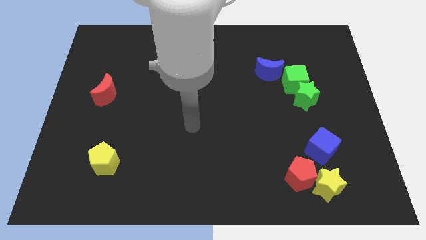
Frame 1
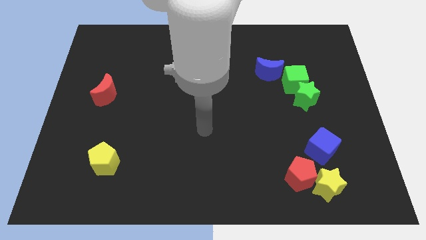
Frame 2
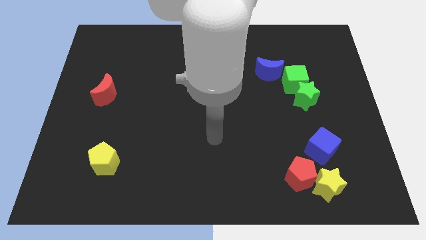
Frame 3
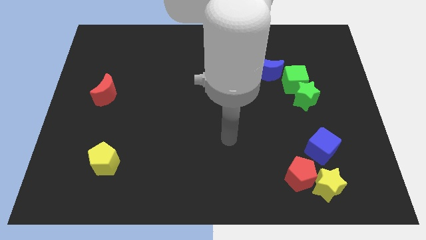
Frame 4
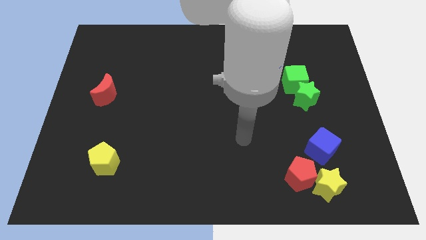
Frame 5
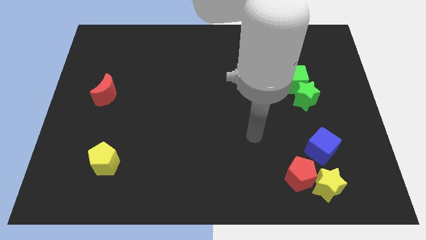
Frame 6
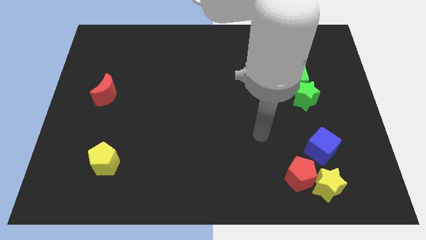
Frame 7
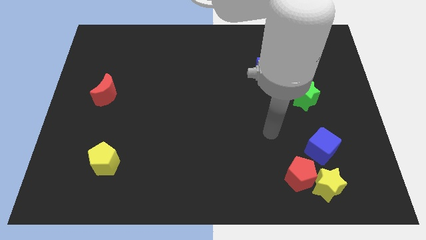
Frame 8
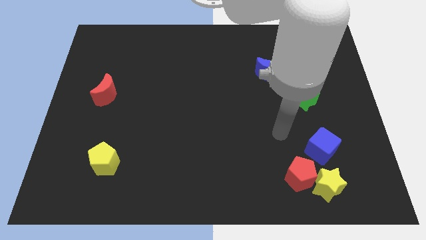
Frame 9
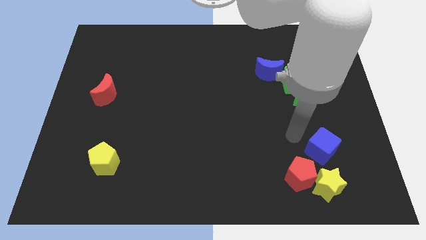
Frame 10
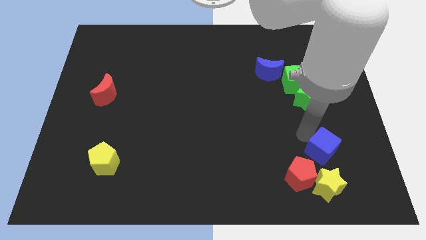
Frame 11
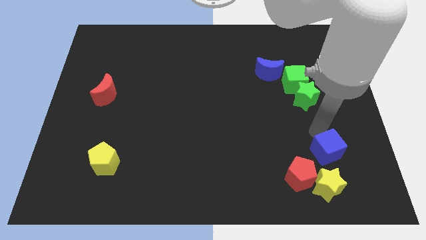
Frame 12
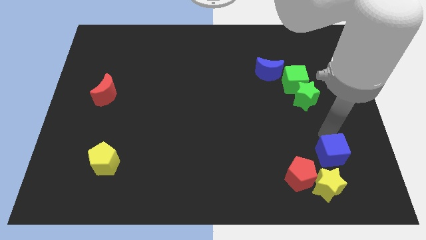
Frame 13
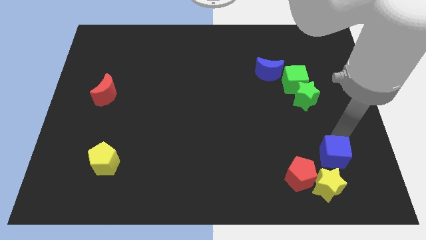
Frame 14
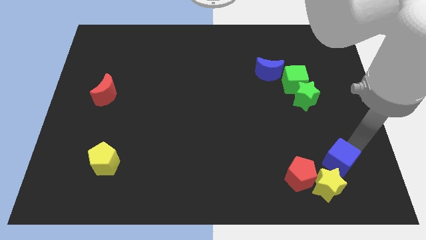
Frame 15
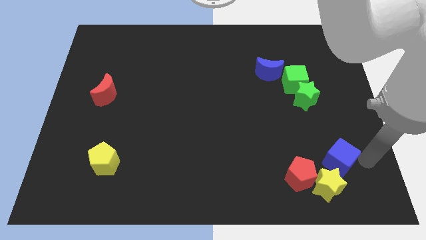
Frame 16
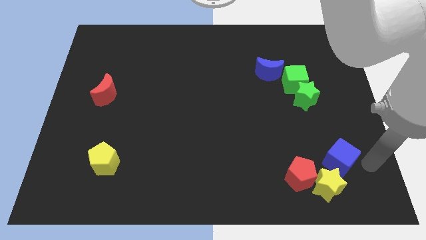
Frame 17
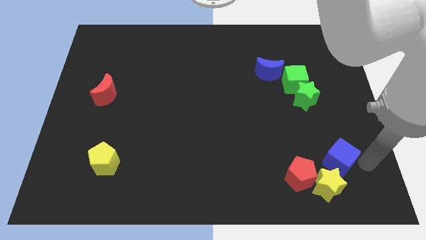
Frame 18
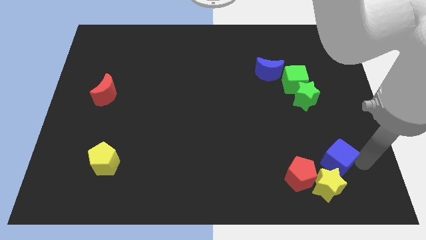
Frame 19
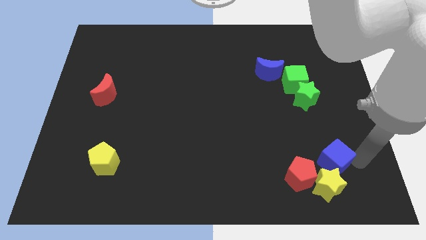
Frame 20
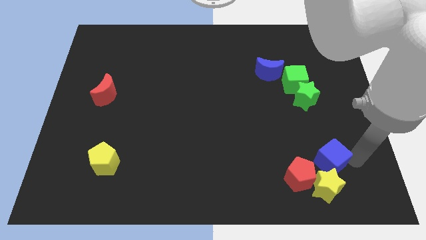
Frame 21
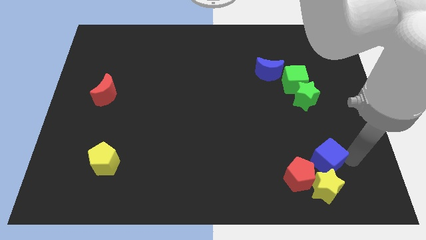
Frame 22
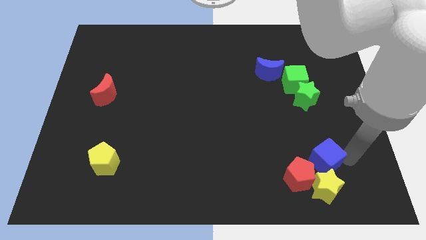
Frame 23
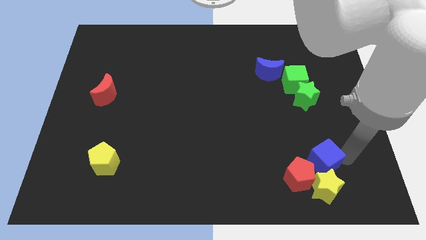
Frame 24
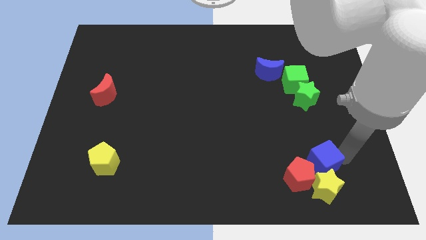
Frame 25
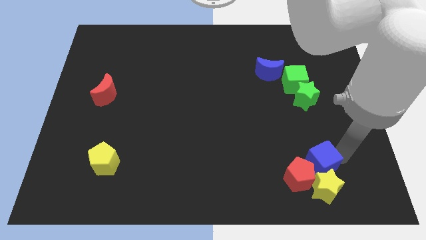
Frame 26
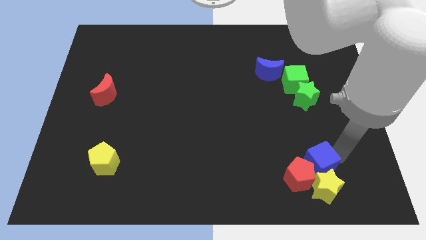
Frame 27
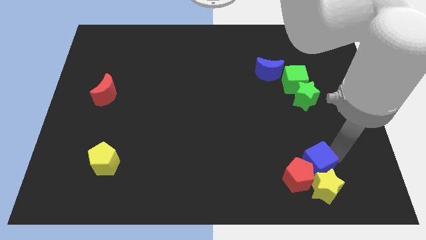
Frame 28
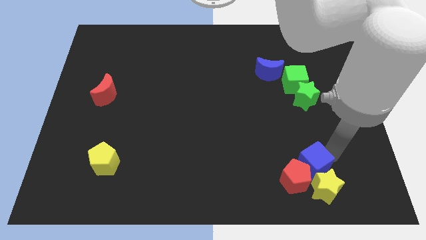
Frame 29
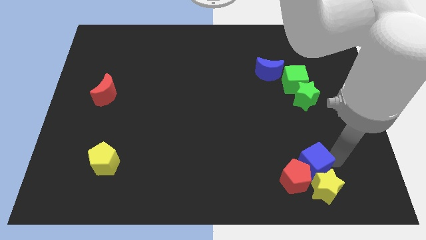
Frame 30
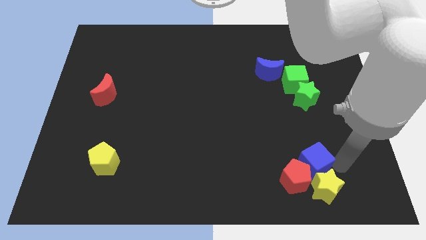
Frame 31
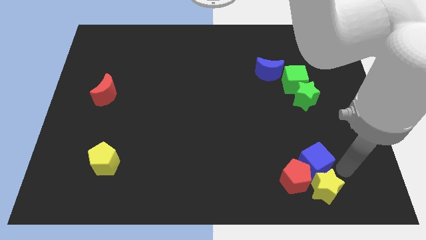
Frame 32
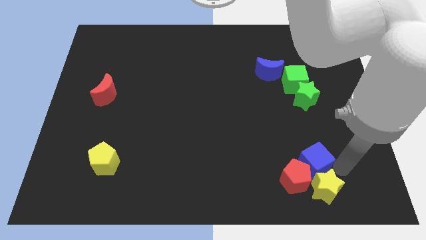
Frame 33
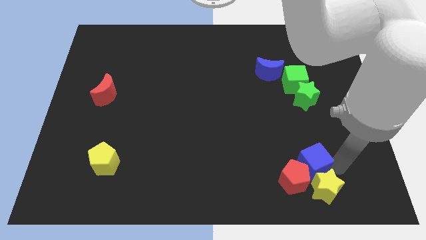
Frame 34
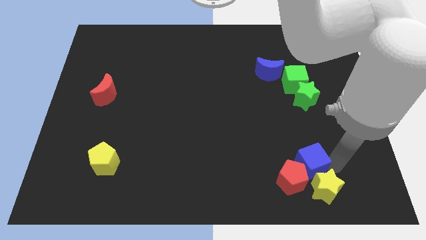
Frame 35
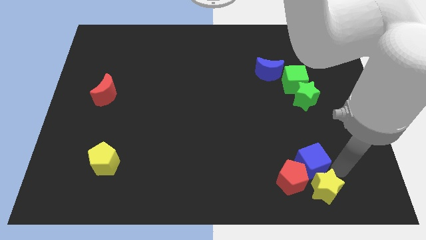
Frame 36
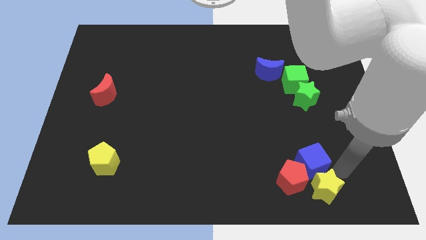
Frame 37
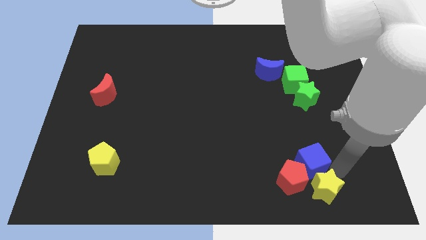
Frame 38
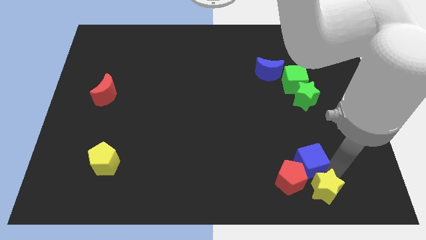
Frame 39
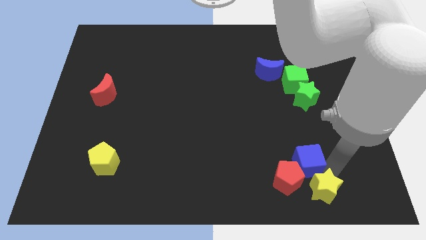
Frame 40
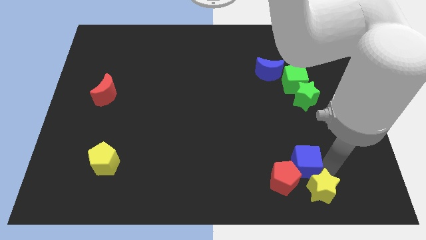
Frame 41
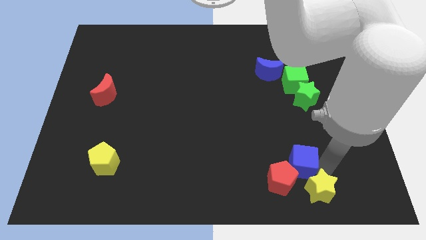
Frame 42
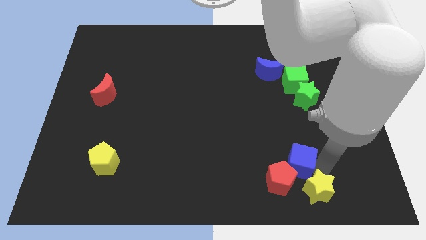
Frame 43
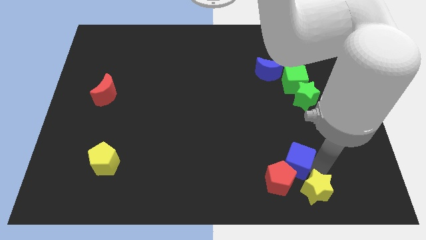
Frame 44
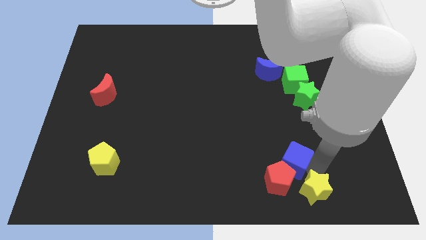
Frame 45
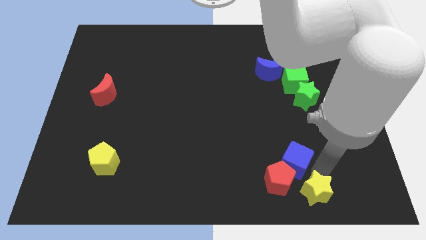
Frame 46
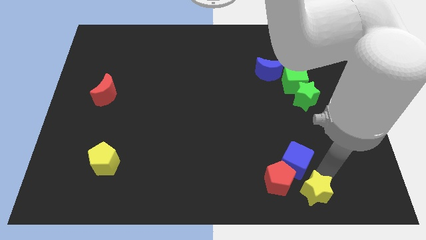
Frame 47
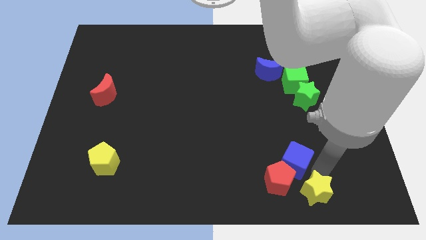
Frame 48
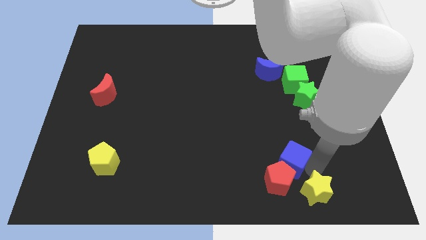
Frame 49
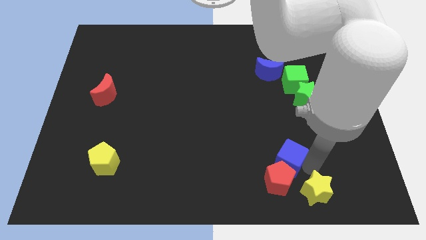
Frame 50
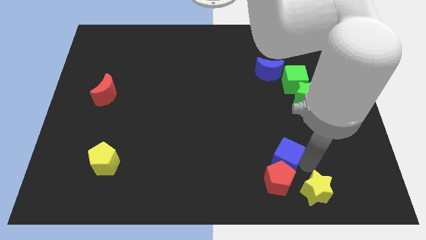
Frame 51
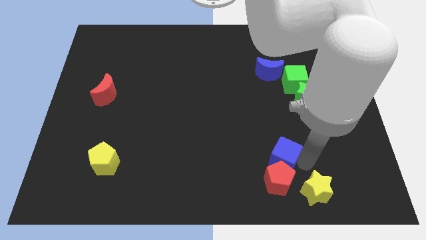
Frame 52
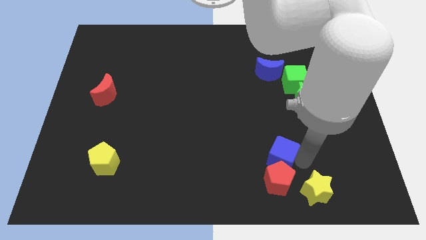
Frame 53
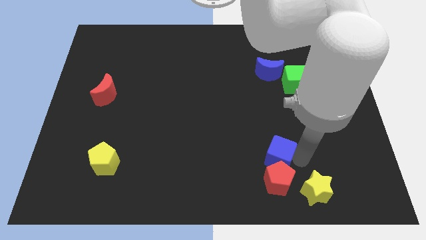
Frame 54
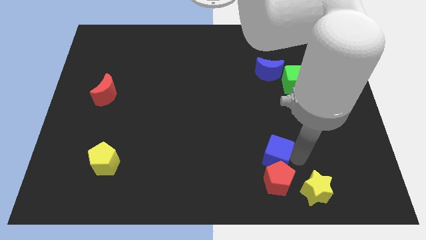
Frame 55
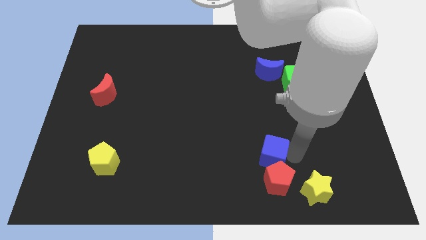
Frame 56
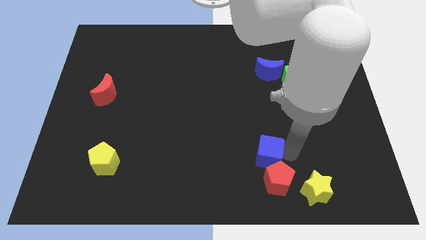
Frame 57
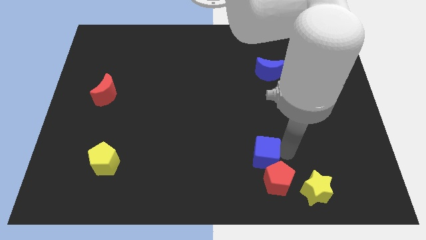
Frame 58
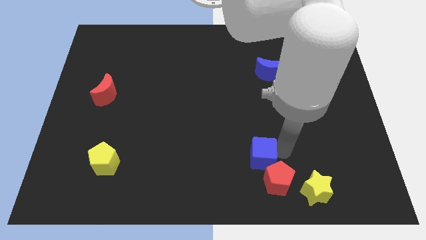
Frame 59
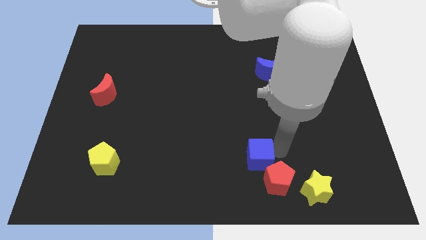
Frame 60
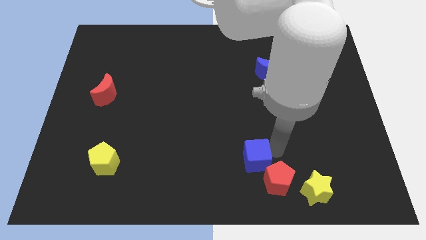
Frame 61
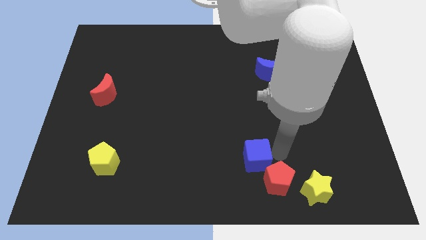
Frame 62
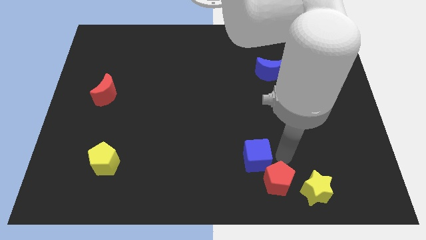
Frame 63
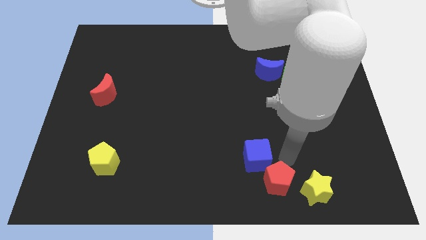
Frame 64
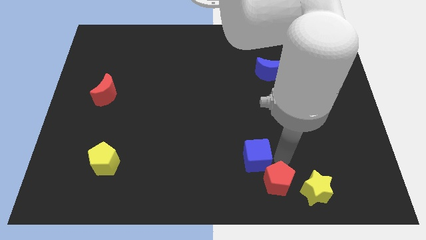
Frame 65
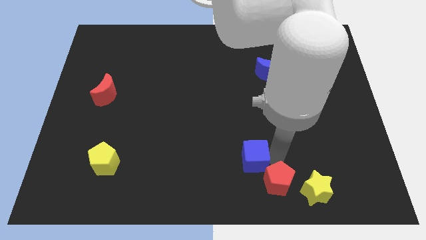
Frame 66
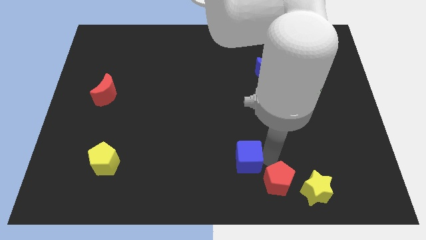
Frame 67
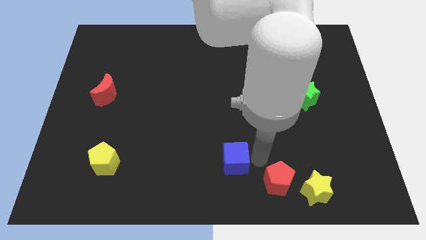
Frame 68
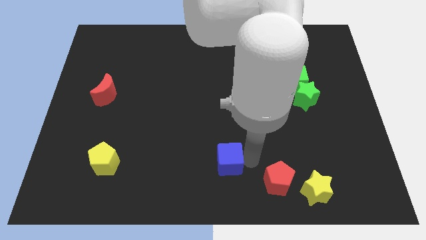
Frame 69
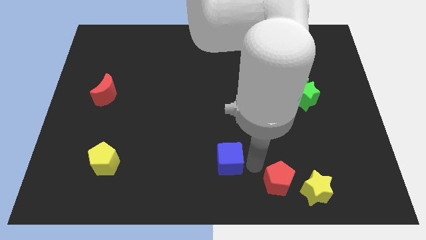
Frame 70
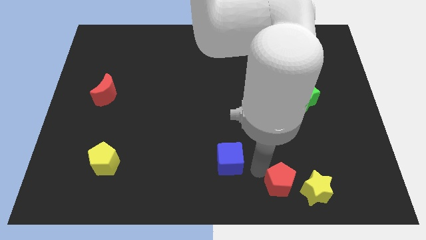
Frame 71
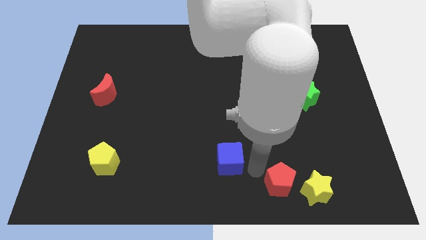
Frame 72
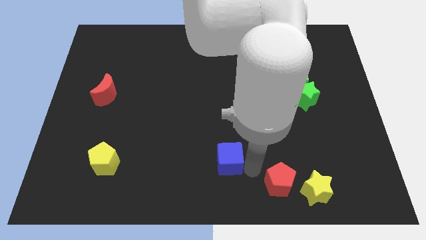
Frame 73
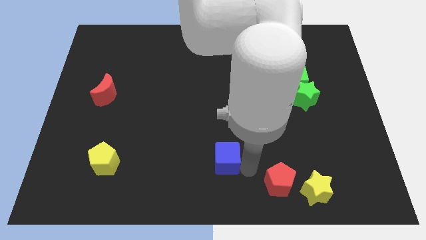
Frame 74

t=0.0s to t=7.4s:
slide the blue cube left

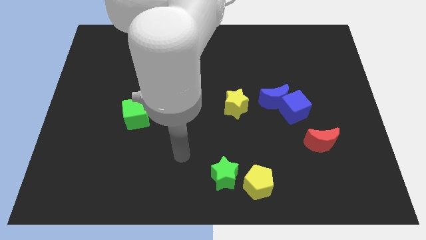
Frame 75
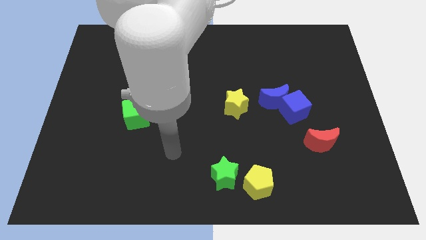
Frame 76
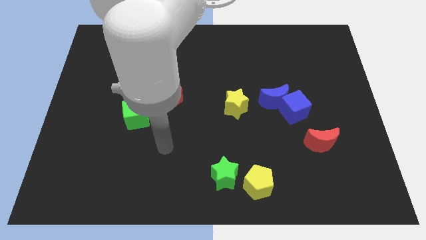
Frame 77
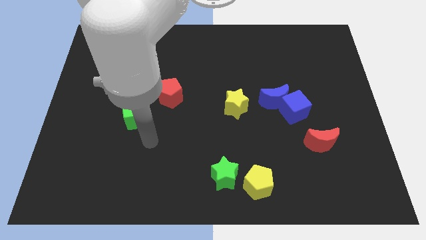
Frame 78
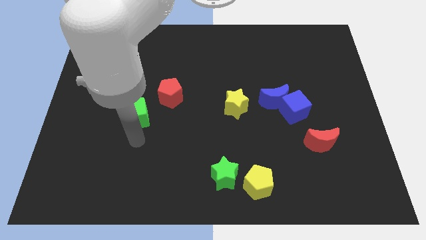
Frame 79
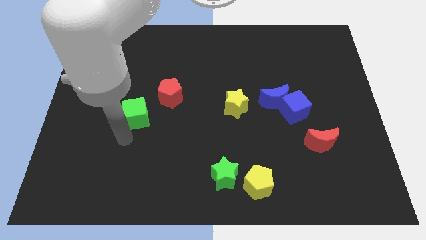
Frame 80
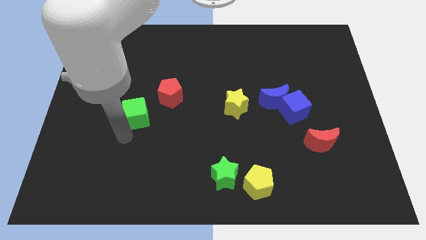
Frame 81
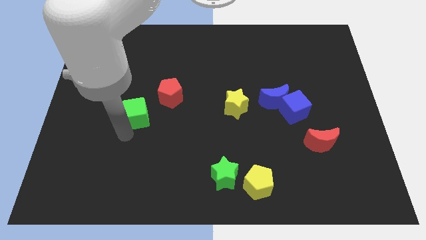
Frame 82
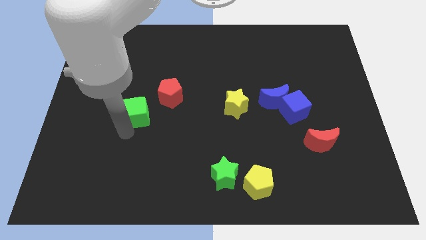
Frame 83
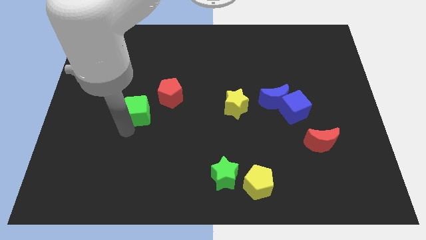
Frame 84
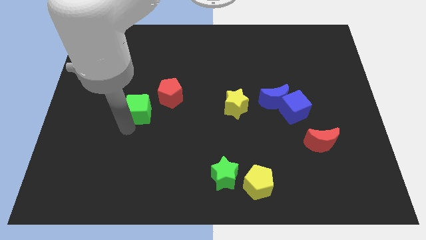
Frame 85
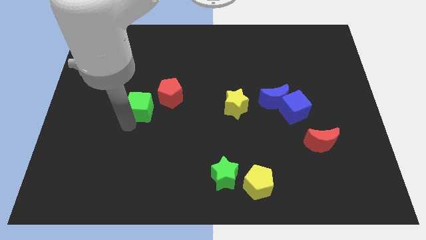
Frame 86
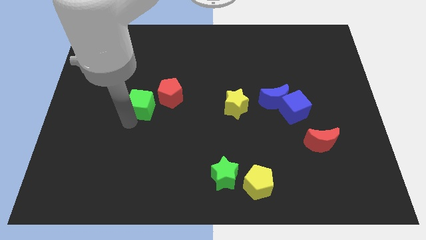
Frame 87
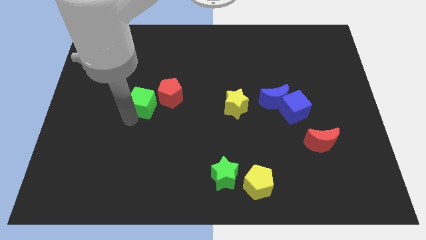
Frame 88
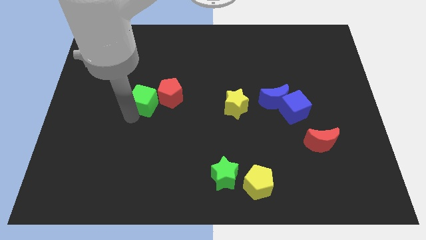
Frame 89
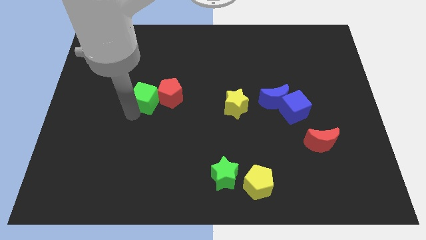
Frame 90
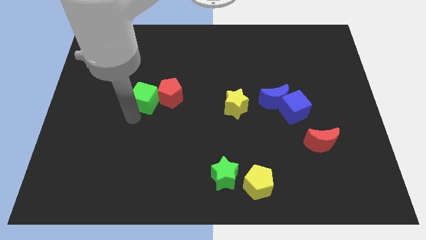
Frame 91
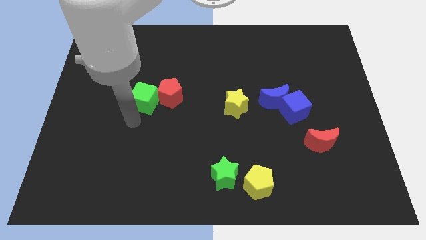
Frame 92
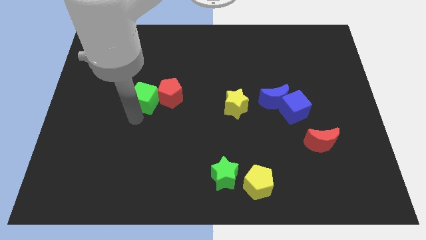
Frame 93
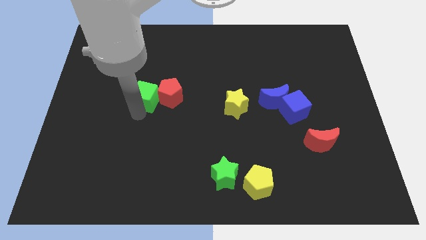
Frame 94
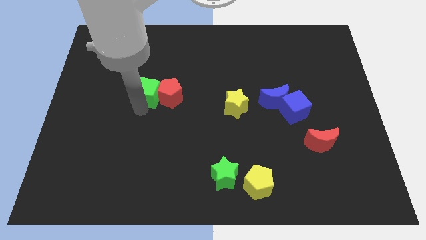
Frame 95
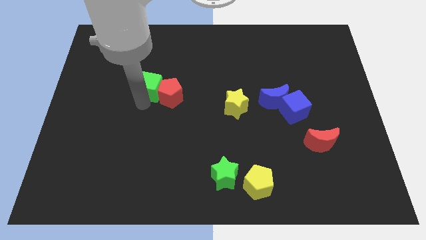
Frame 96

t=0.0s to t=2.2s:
move the green cube somewhat upwards and to the right diagonally
